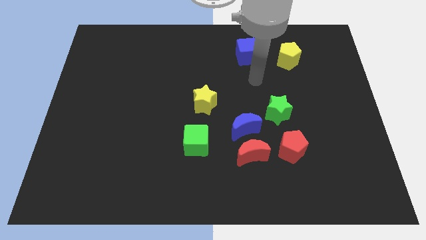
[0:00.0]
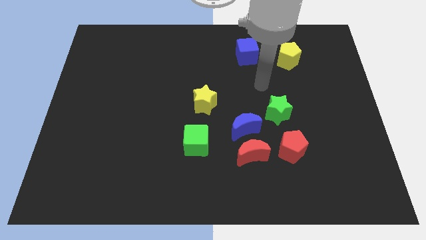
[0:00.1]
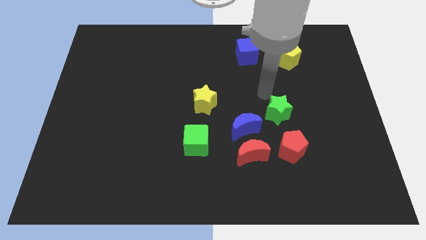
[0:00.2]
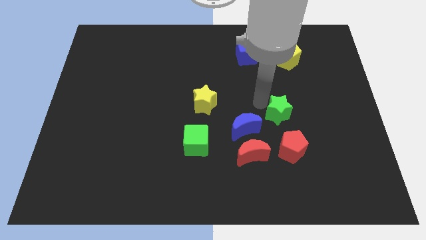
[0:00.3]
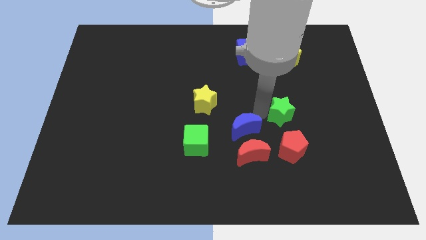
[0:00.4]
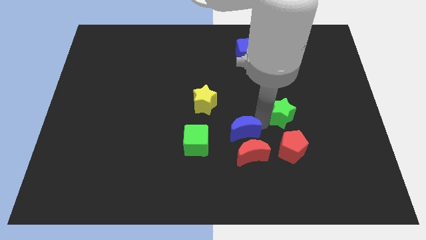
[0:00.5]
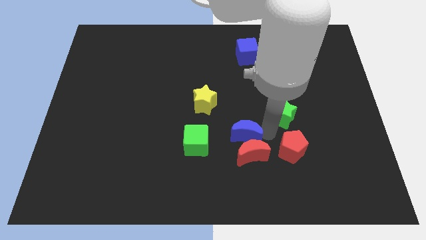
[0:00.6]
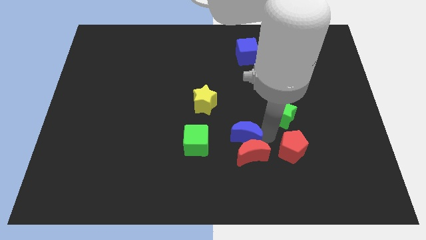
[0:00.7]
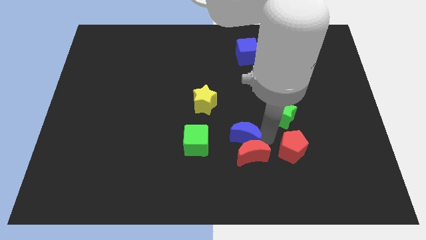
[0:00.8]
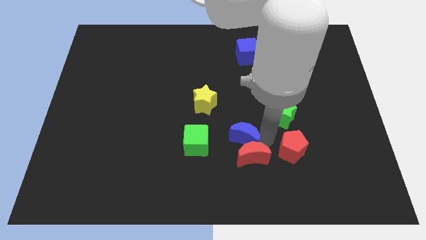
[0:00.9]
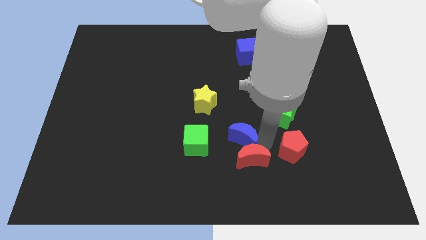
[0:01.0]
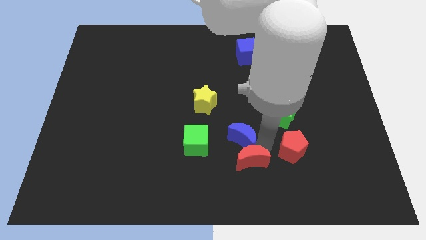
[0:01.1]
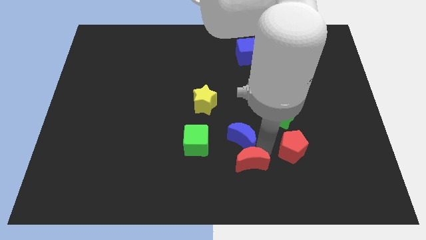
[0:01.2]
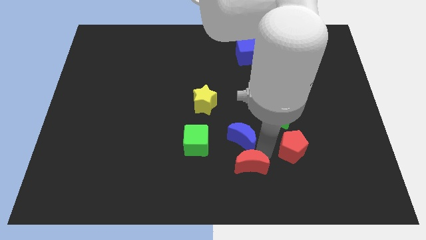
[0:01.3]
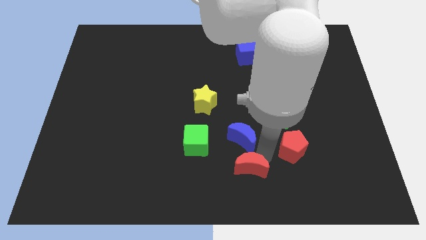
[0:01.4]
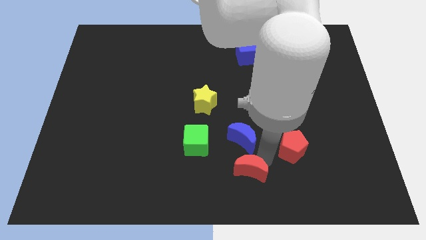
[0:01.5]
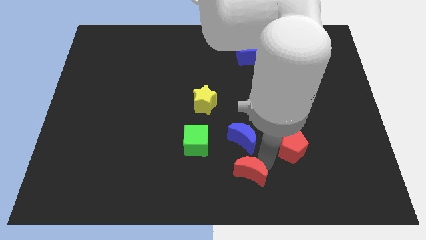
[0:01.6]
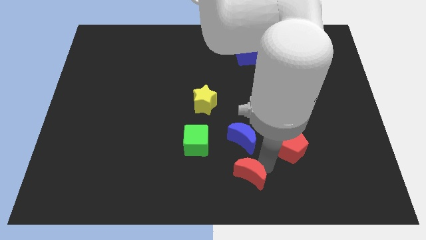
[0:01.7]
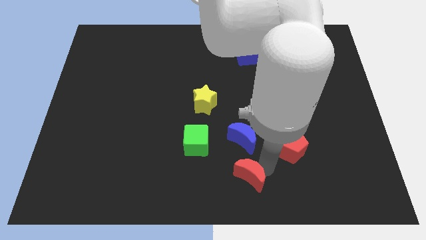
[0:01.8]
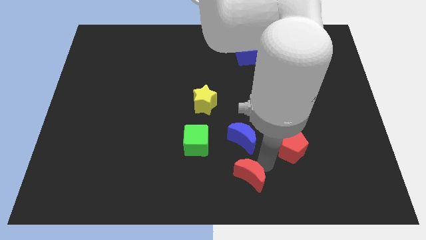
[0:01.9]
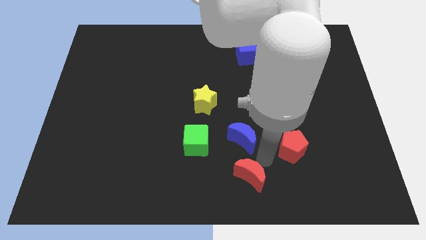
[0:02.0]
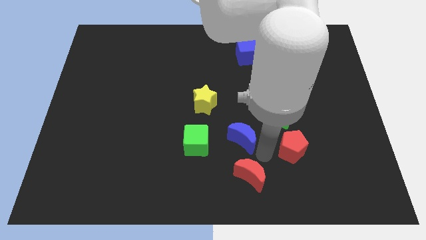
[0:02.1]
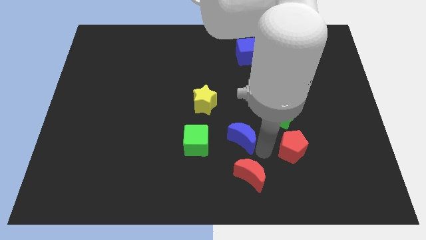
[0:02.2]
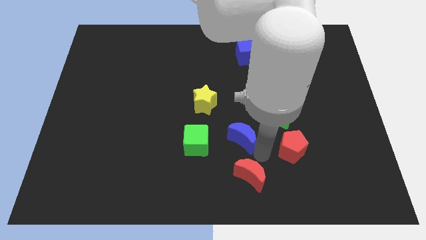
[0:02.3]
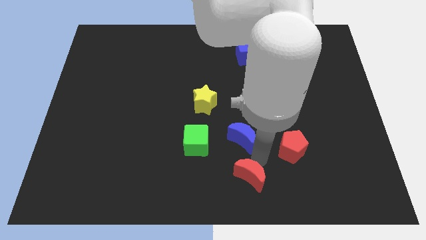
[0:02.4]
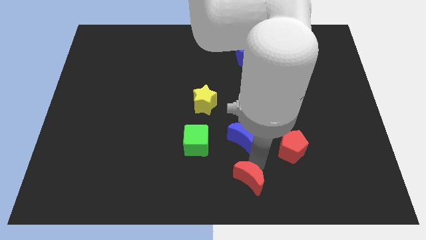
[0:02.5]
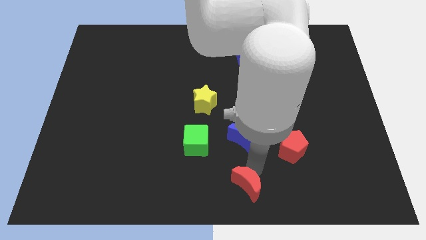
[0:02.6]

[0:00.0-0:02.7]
separate the red moon from the blue moon and red pentagon

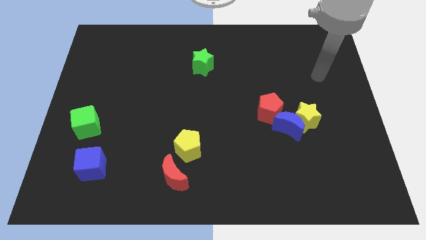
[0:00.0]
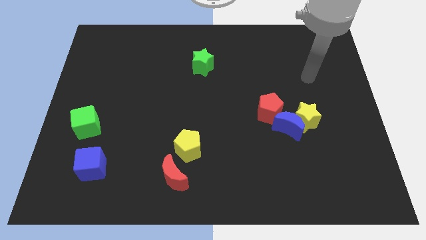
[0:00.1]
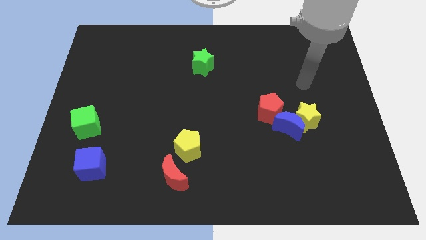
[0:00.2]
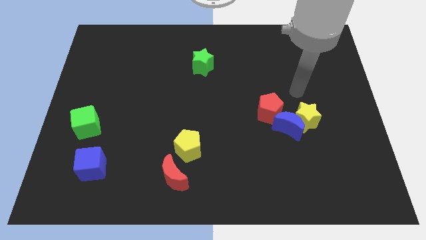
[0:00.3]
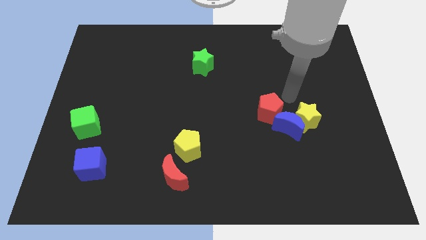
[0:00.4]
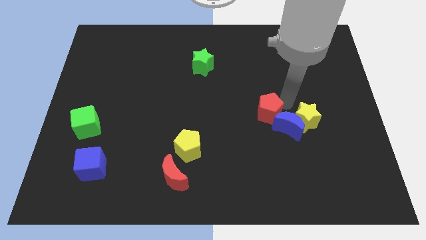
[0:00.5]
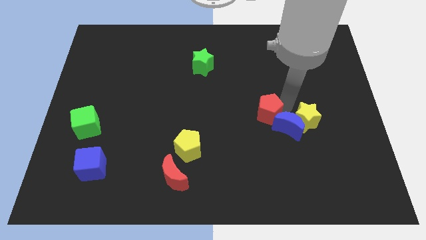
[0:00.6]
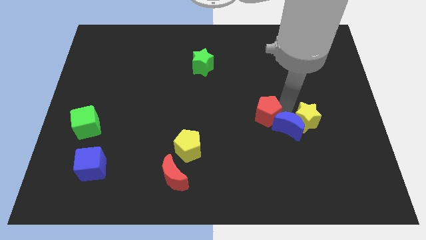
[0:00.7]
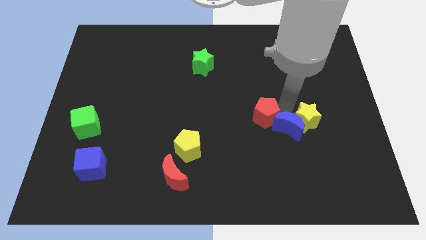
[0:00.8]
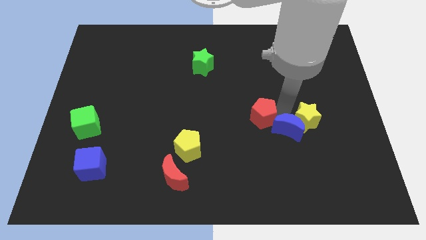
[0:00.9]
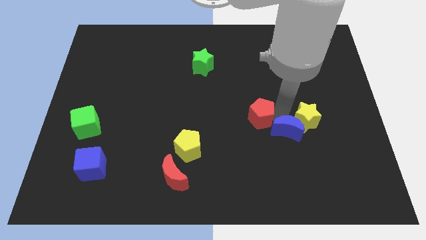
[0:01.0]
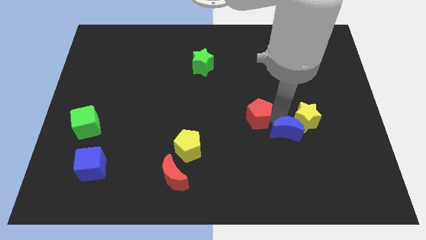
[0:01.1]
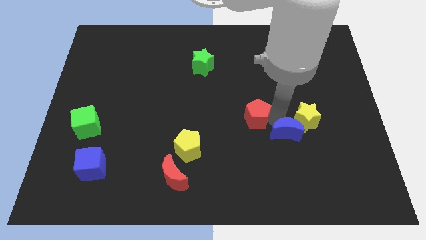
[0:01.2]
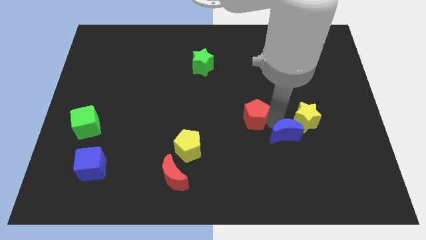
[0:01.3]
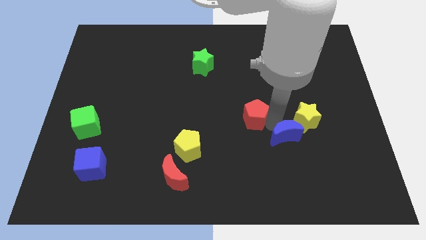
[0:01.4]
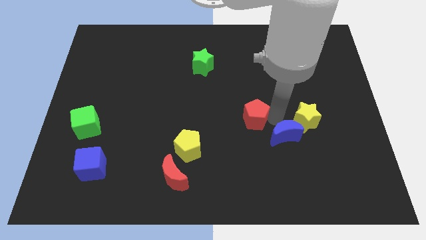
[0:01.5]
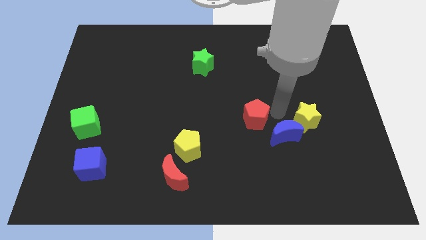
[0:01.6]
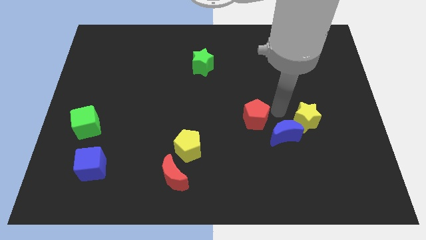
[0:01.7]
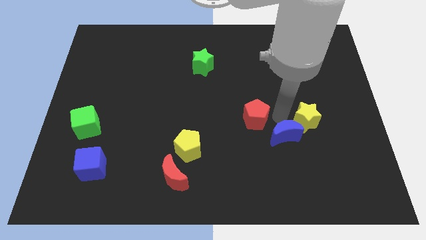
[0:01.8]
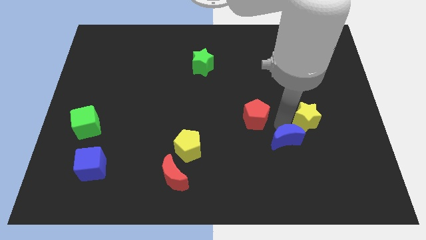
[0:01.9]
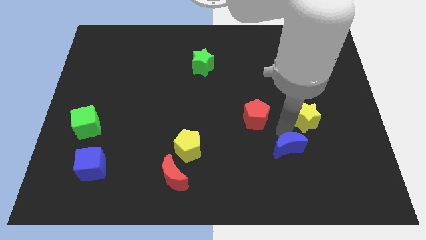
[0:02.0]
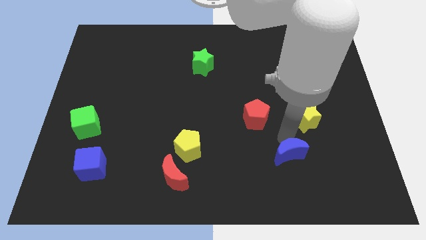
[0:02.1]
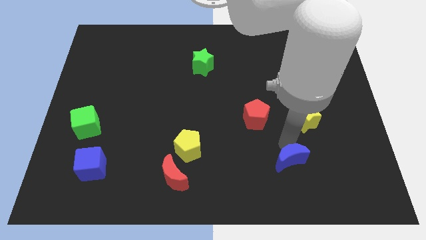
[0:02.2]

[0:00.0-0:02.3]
move the blue moon away from the yellow star and red pentagon

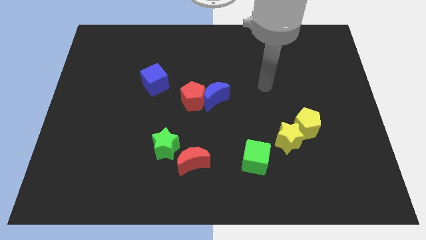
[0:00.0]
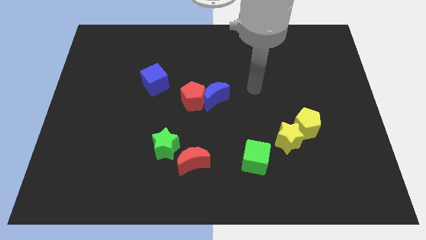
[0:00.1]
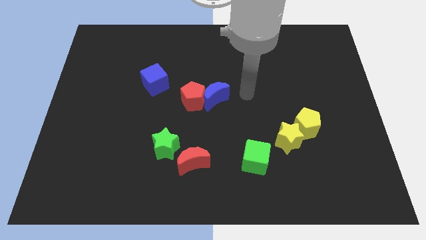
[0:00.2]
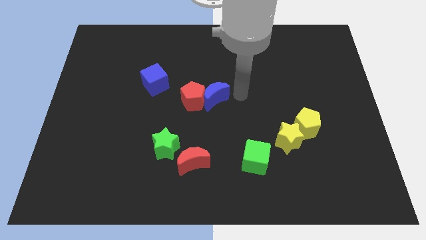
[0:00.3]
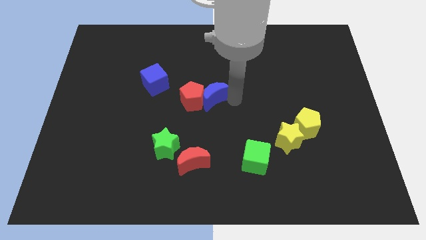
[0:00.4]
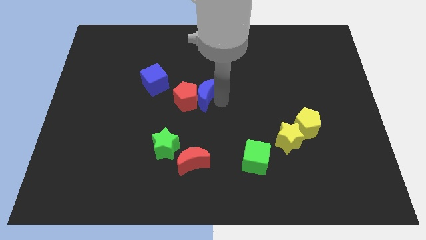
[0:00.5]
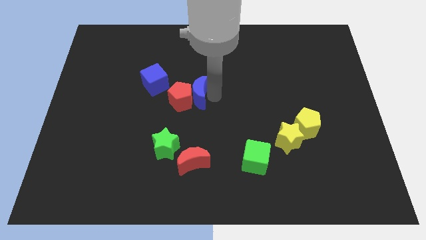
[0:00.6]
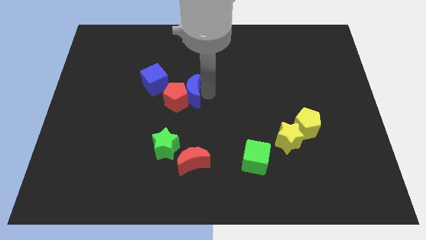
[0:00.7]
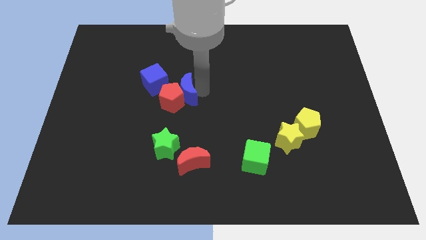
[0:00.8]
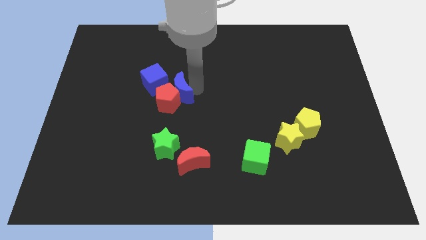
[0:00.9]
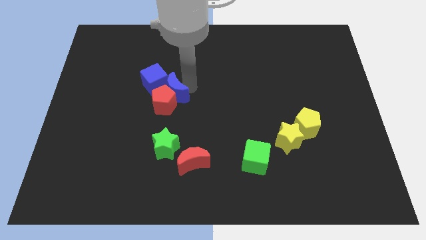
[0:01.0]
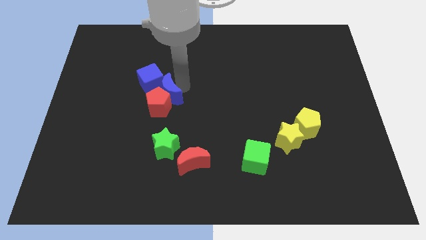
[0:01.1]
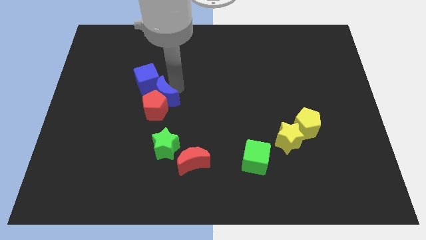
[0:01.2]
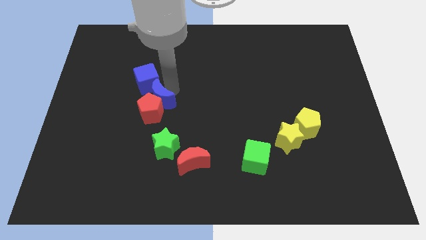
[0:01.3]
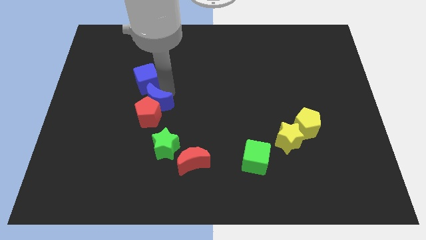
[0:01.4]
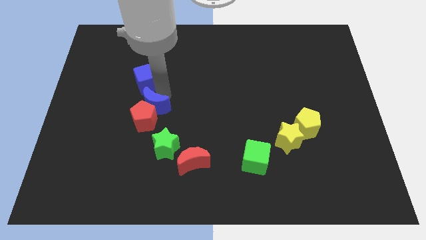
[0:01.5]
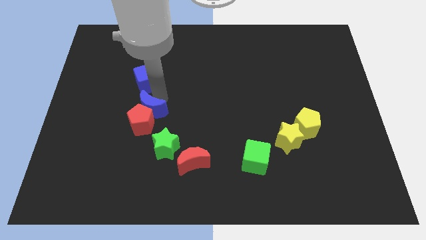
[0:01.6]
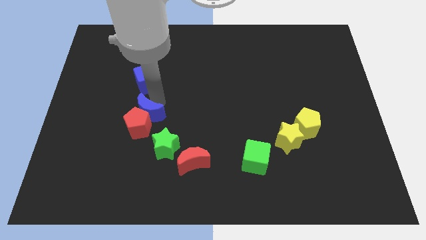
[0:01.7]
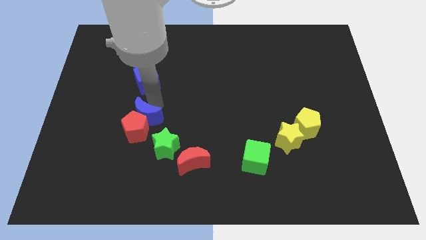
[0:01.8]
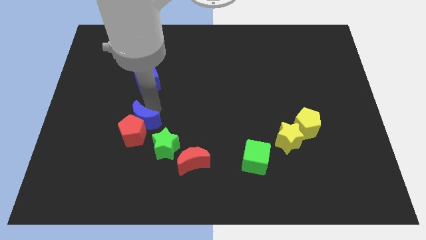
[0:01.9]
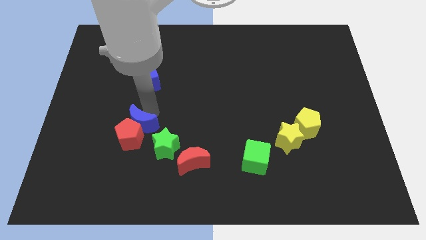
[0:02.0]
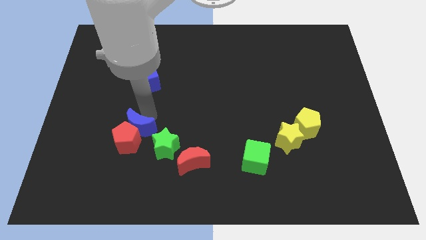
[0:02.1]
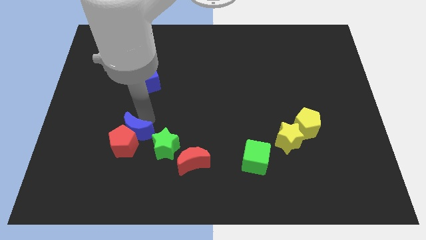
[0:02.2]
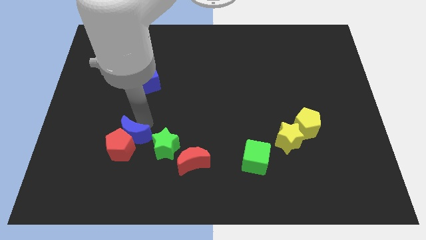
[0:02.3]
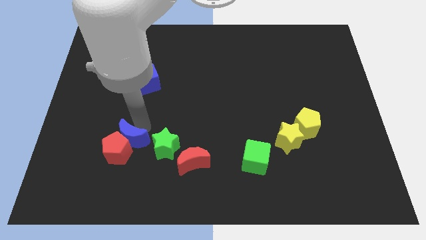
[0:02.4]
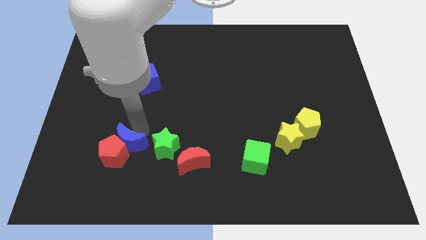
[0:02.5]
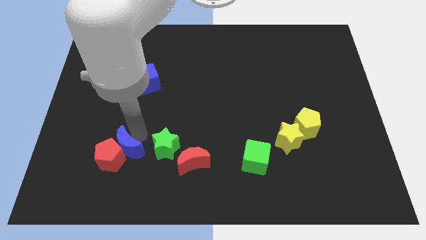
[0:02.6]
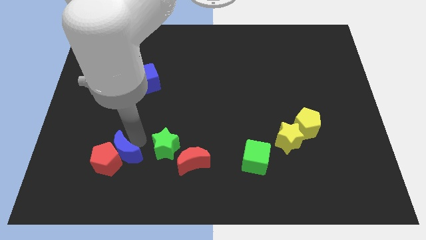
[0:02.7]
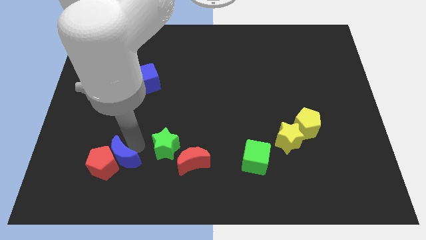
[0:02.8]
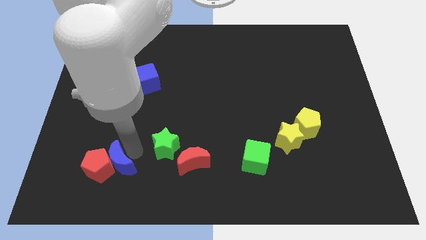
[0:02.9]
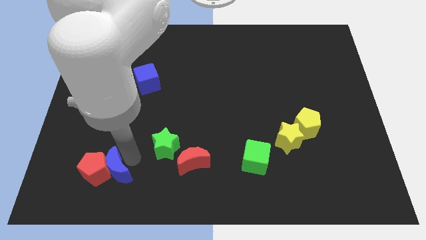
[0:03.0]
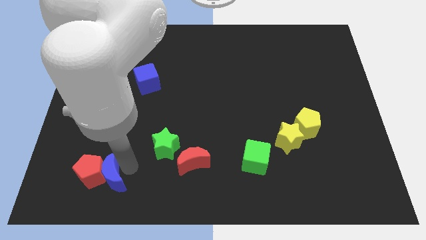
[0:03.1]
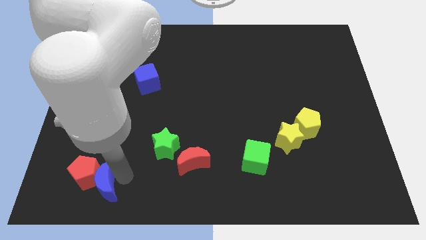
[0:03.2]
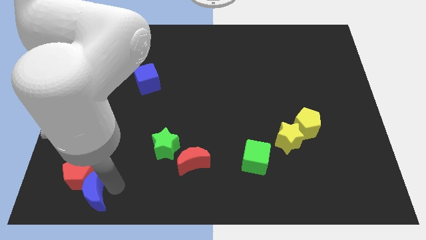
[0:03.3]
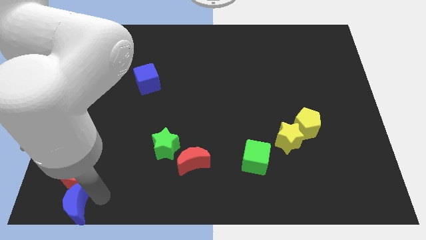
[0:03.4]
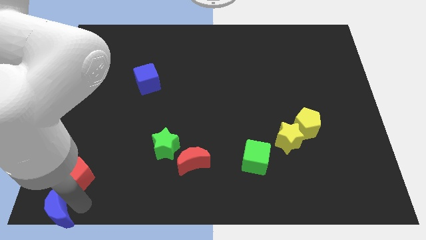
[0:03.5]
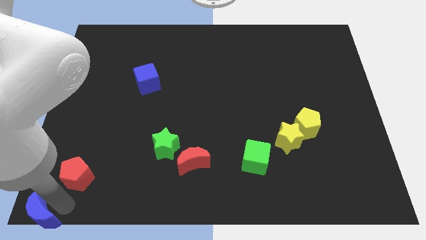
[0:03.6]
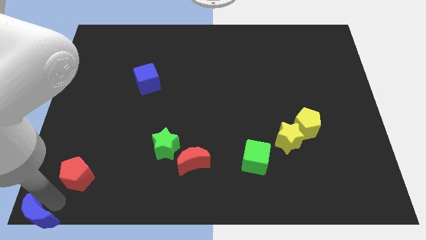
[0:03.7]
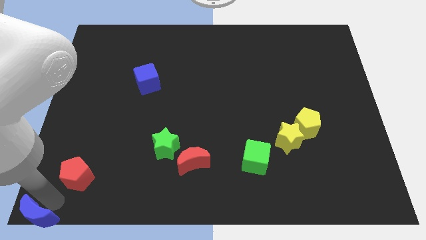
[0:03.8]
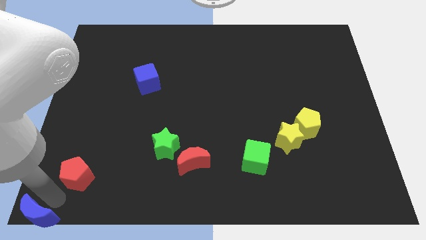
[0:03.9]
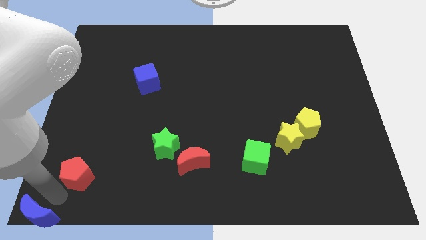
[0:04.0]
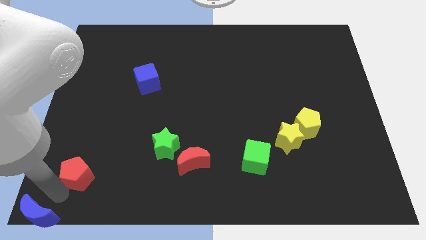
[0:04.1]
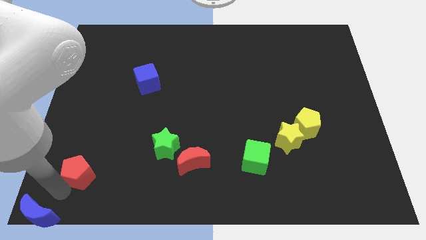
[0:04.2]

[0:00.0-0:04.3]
move the red pentagon away from the blue moon

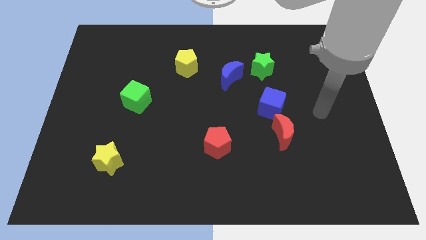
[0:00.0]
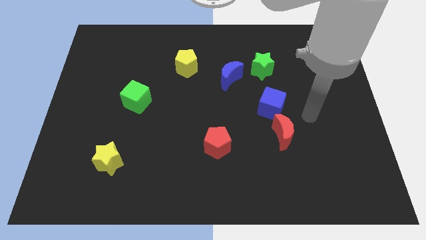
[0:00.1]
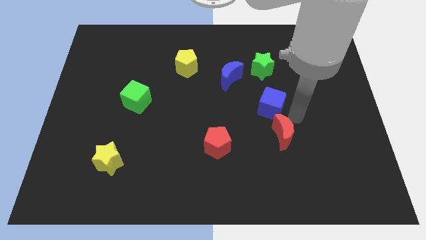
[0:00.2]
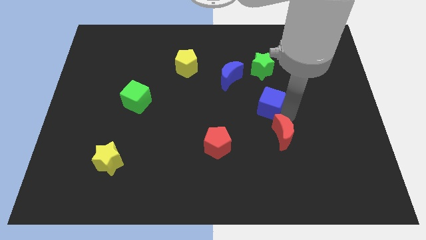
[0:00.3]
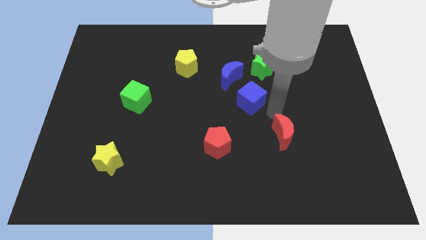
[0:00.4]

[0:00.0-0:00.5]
pull the red moon apart from the blue cube
